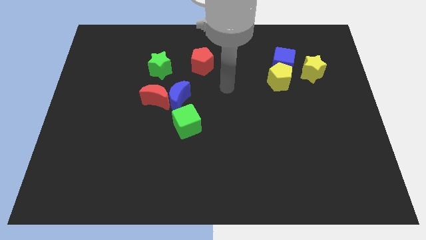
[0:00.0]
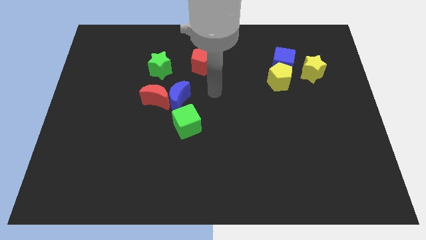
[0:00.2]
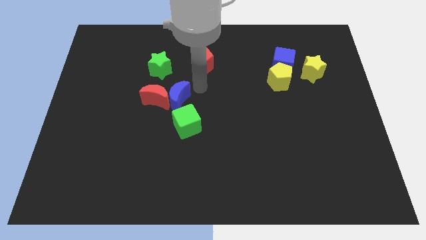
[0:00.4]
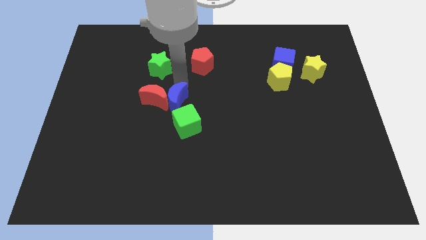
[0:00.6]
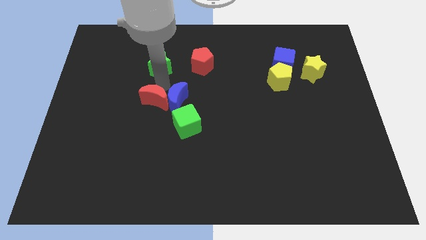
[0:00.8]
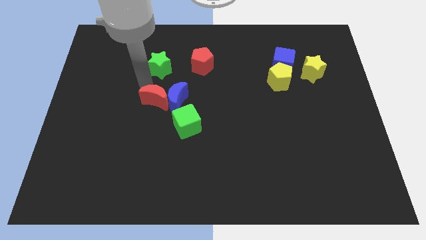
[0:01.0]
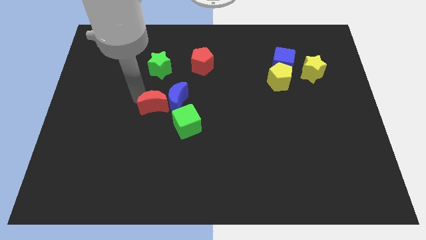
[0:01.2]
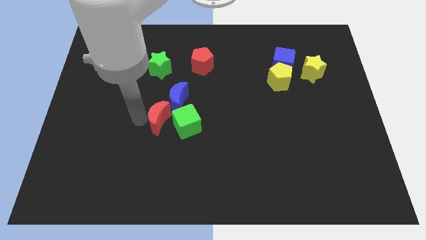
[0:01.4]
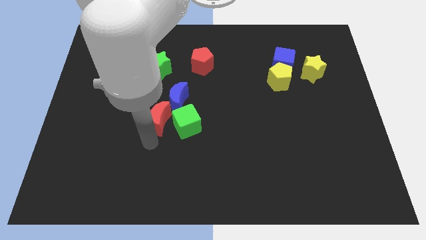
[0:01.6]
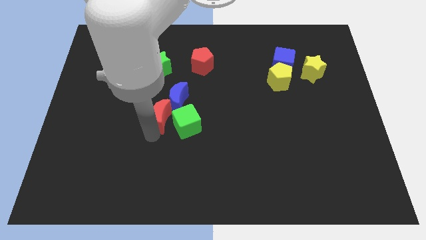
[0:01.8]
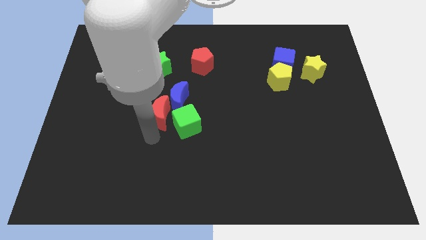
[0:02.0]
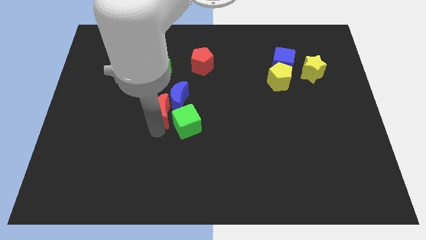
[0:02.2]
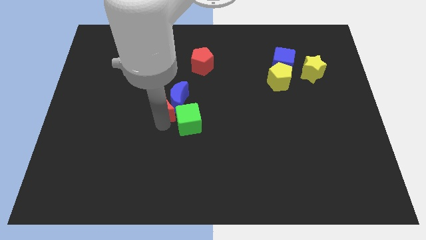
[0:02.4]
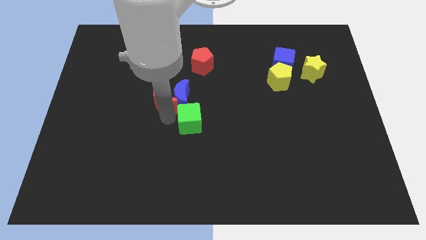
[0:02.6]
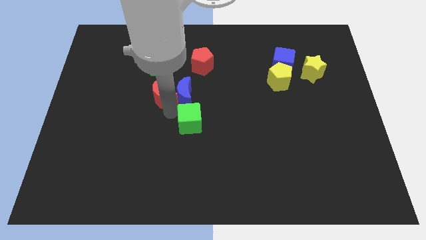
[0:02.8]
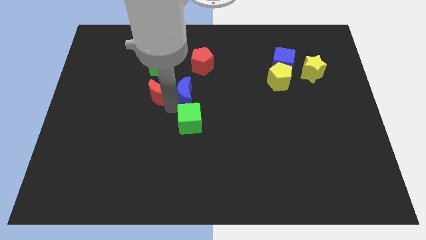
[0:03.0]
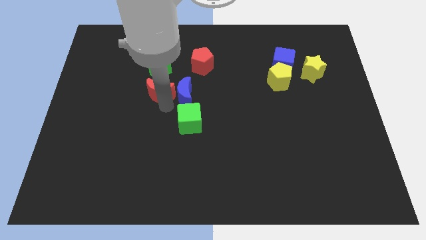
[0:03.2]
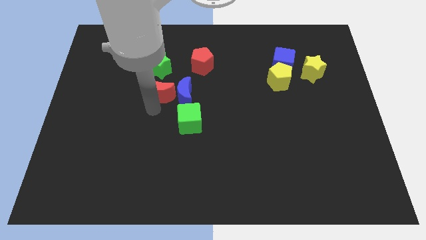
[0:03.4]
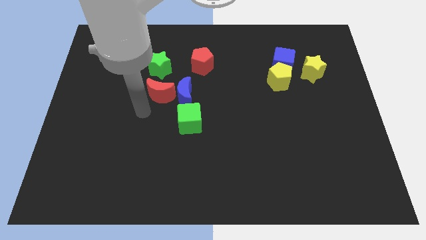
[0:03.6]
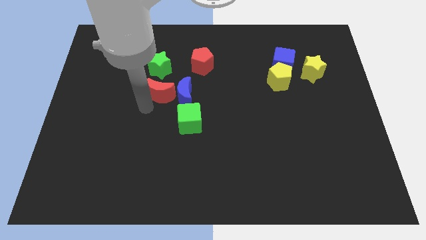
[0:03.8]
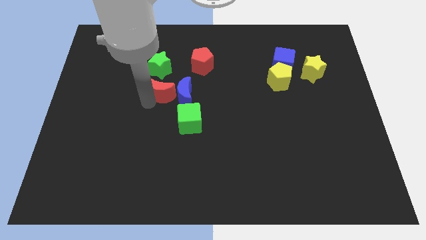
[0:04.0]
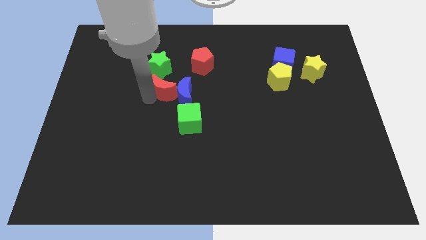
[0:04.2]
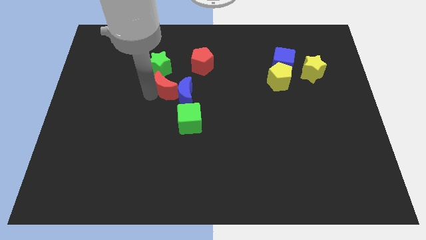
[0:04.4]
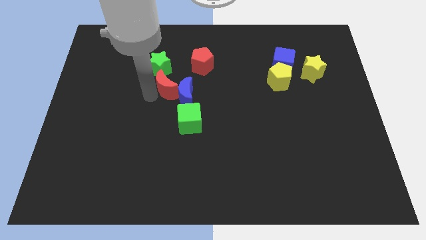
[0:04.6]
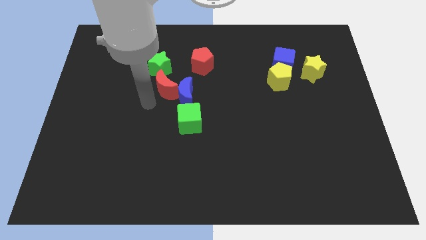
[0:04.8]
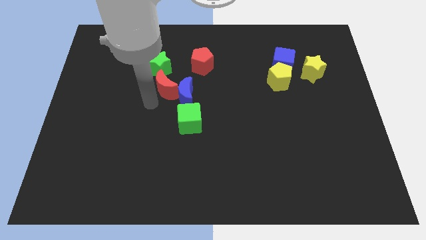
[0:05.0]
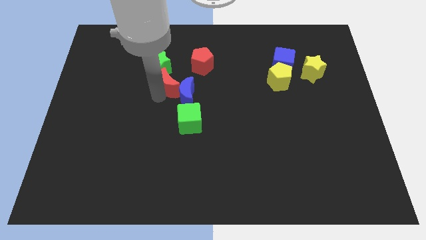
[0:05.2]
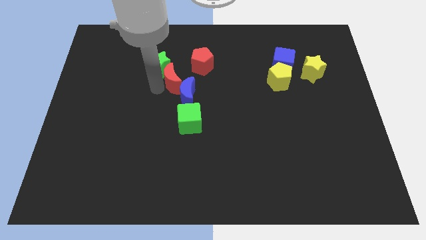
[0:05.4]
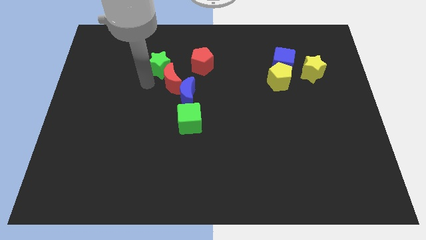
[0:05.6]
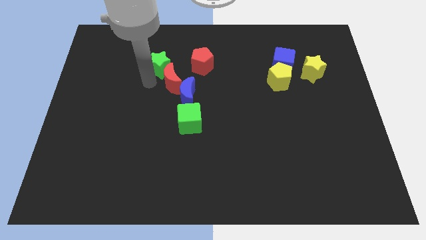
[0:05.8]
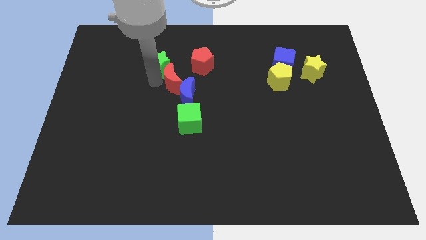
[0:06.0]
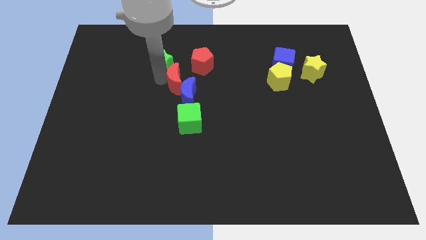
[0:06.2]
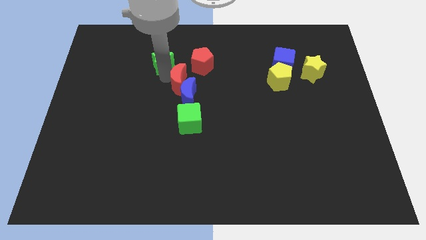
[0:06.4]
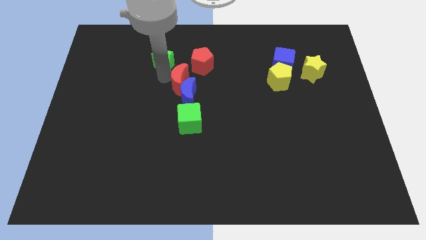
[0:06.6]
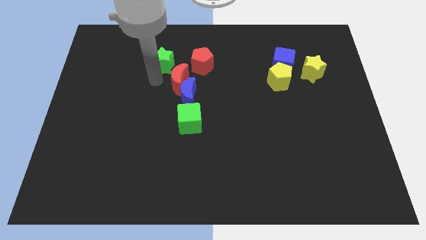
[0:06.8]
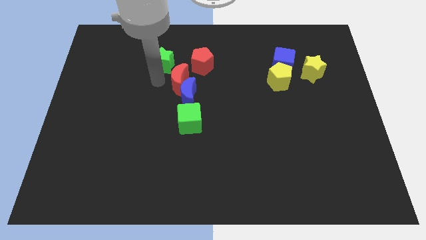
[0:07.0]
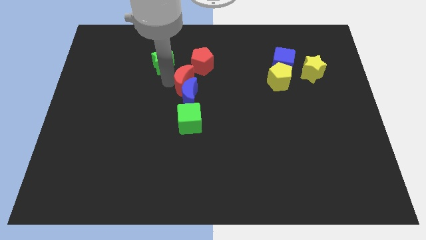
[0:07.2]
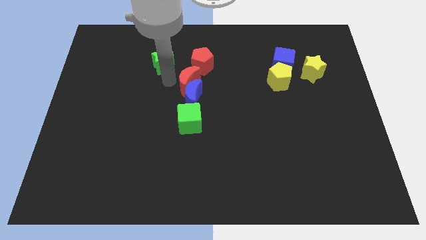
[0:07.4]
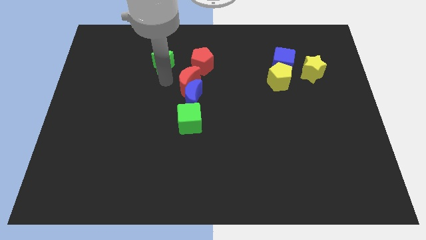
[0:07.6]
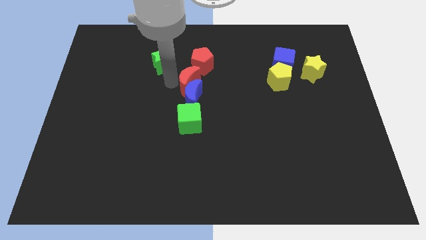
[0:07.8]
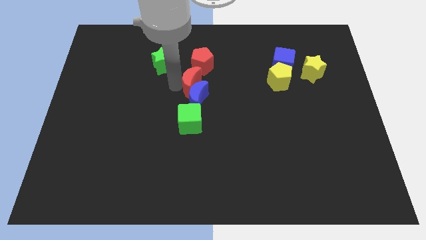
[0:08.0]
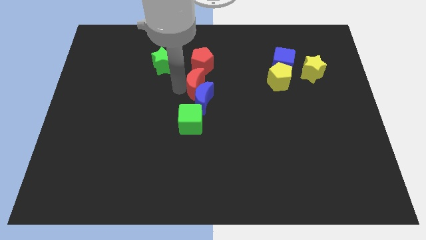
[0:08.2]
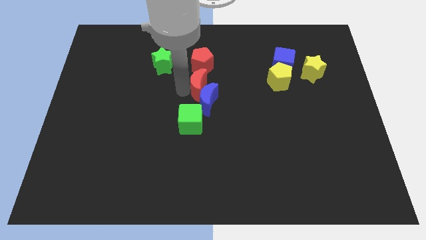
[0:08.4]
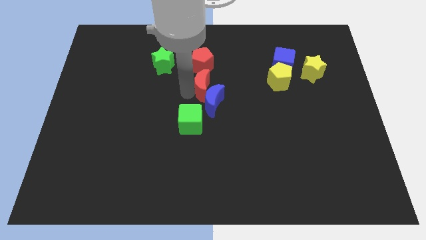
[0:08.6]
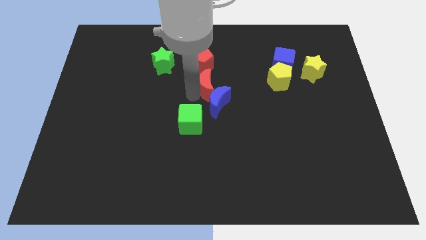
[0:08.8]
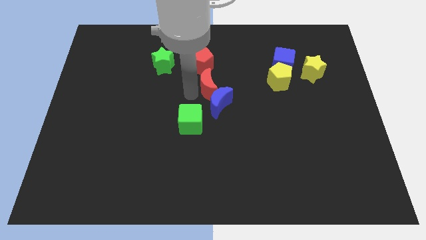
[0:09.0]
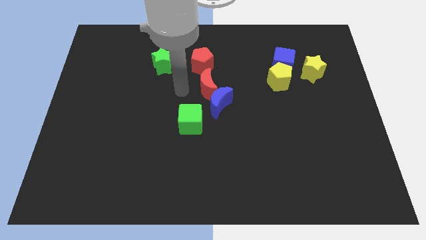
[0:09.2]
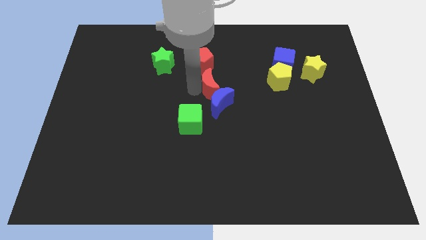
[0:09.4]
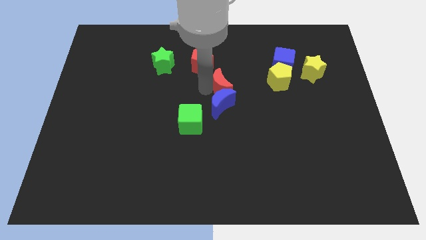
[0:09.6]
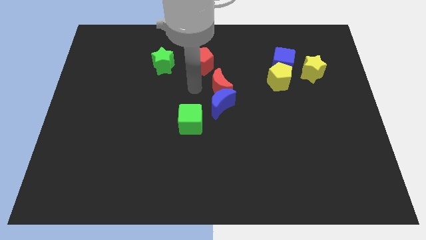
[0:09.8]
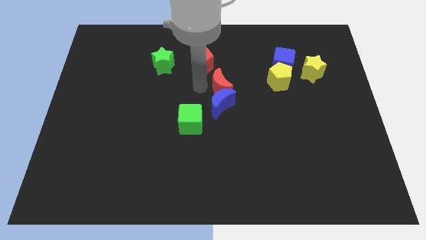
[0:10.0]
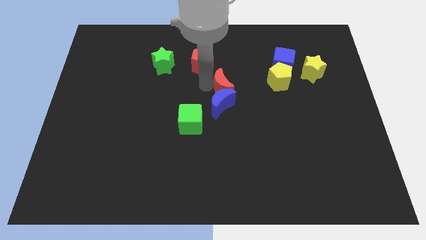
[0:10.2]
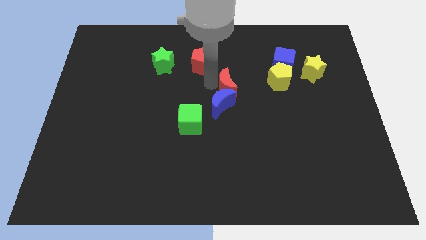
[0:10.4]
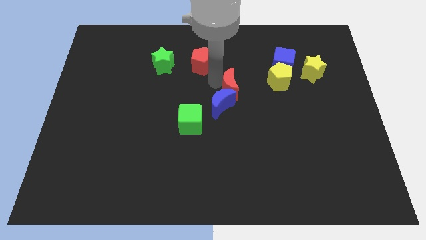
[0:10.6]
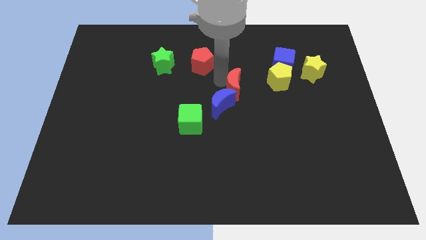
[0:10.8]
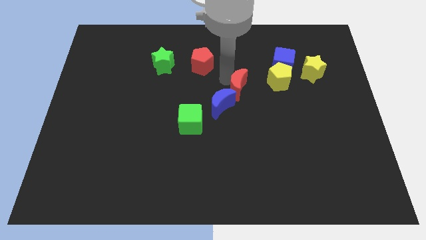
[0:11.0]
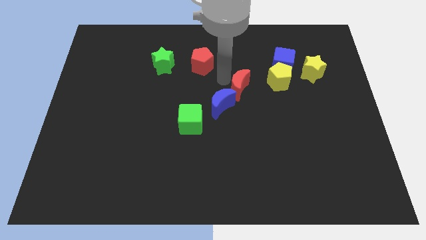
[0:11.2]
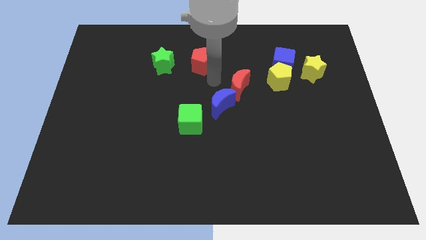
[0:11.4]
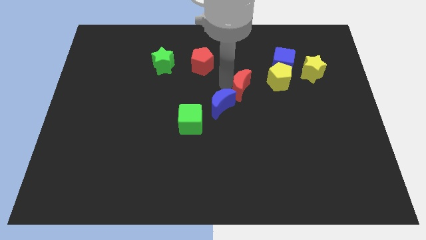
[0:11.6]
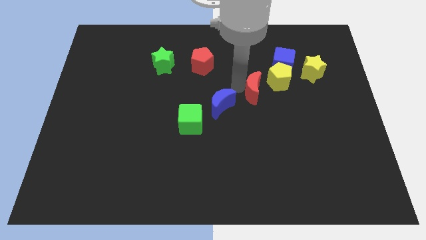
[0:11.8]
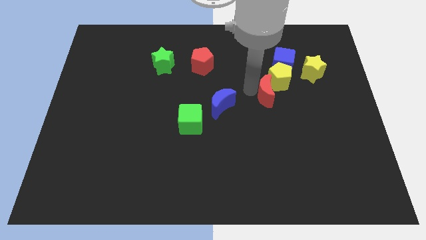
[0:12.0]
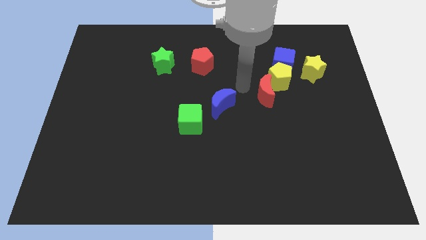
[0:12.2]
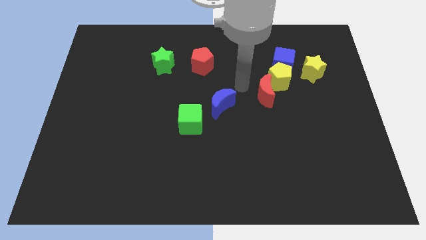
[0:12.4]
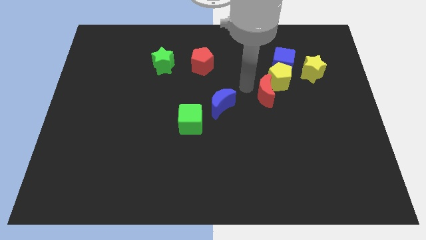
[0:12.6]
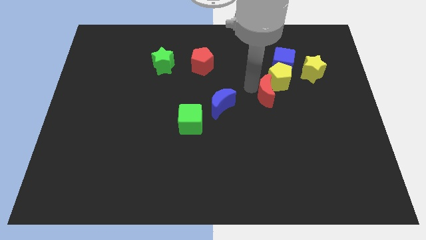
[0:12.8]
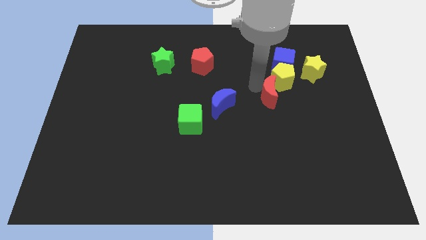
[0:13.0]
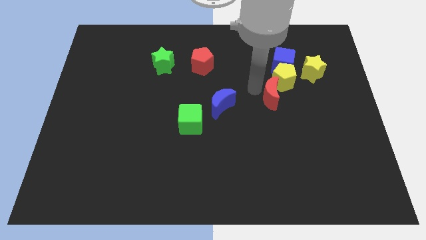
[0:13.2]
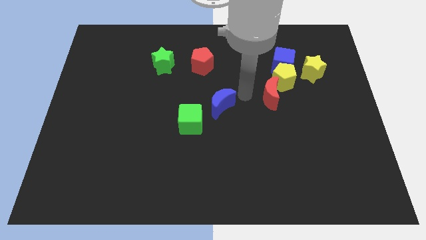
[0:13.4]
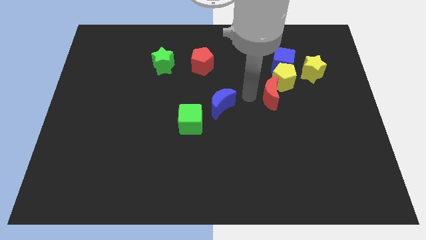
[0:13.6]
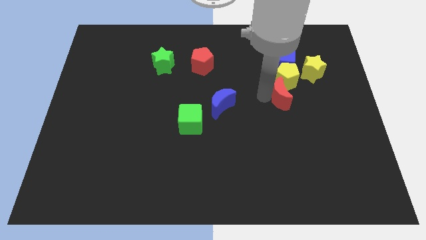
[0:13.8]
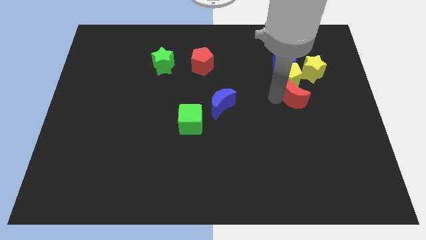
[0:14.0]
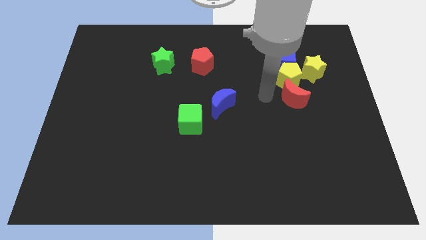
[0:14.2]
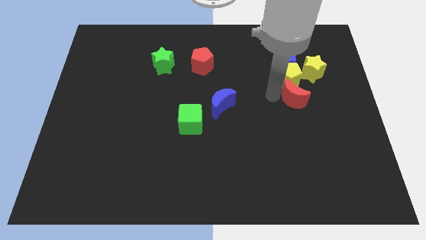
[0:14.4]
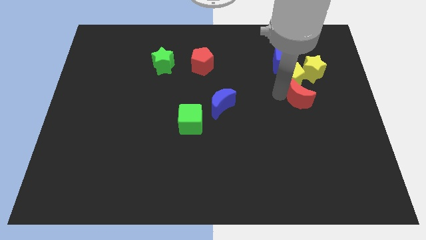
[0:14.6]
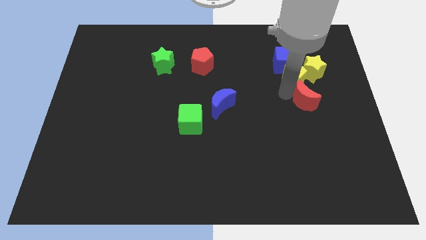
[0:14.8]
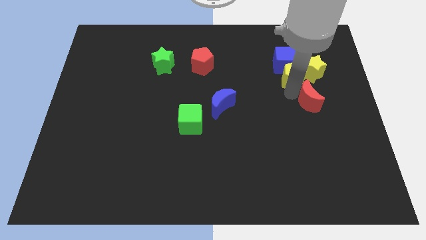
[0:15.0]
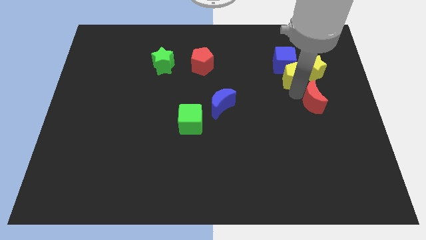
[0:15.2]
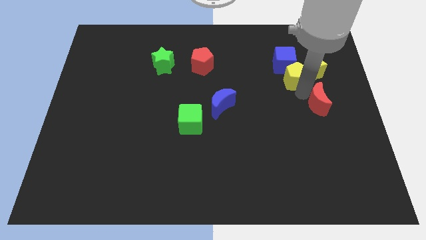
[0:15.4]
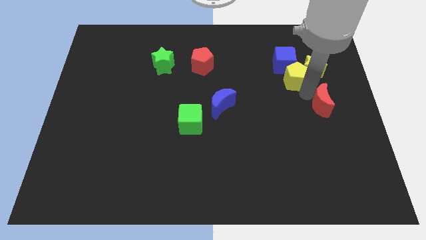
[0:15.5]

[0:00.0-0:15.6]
put the red moon to the center right
